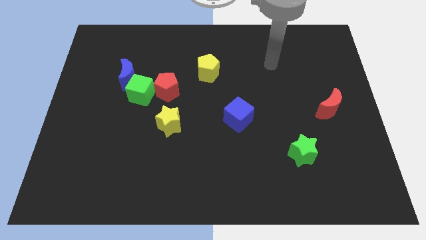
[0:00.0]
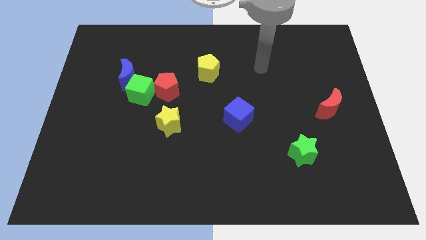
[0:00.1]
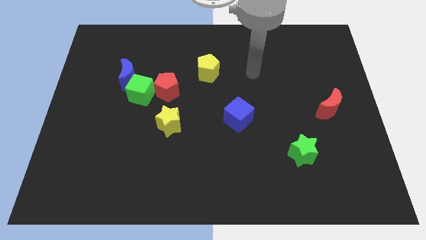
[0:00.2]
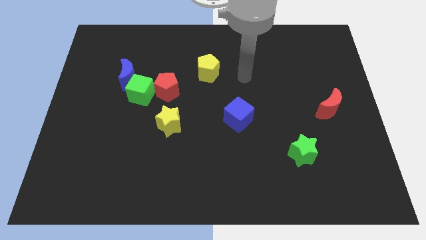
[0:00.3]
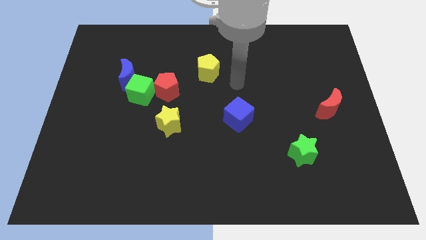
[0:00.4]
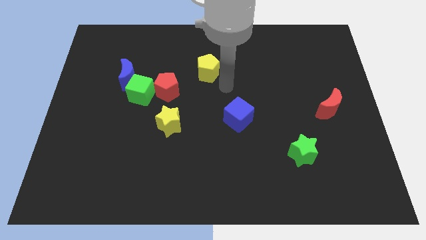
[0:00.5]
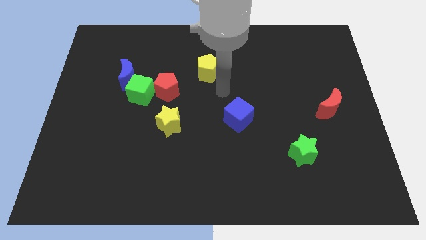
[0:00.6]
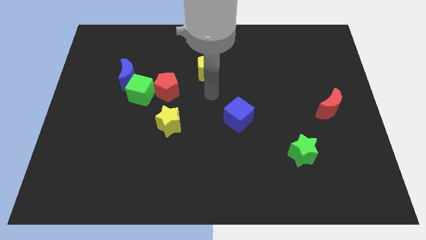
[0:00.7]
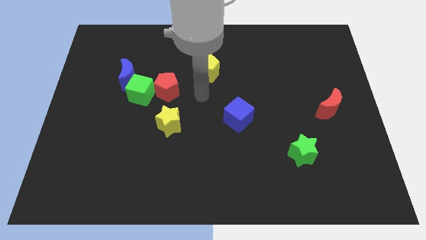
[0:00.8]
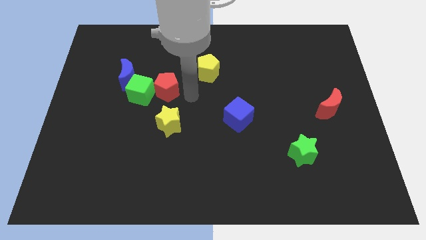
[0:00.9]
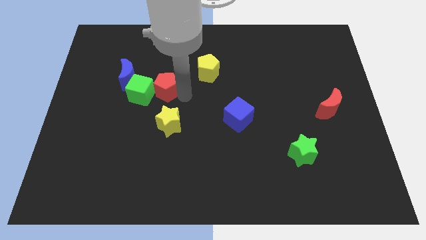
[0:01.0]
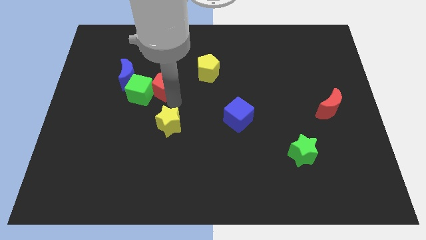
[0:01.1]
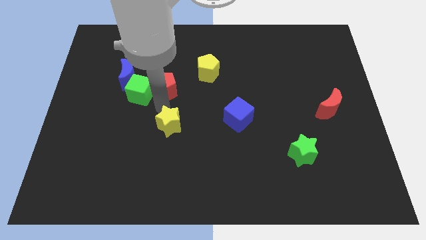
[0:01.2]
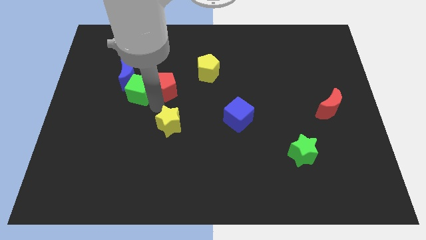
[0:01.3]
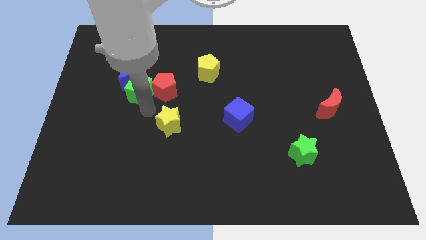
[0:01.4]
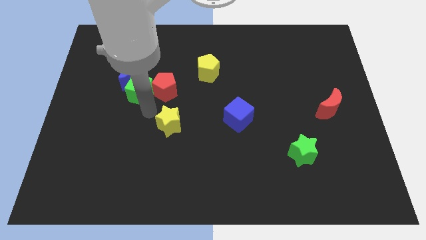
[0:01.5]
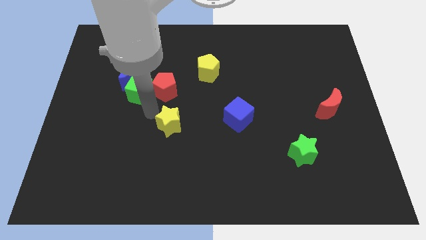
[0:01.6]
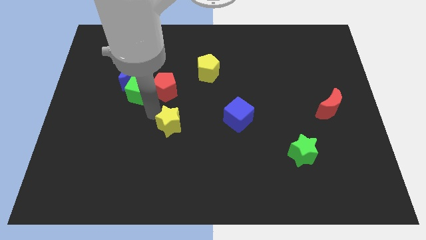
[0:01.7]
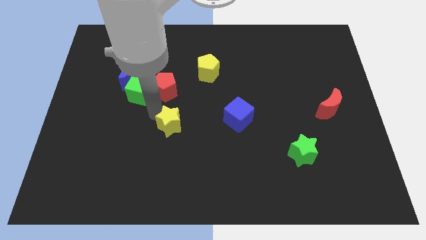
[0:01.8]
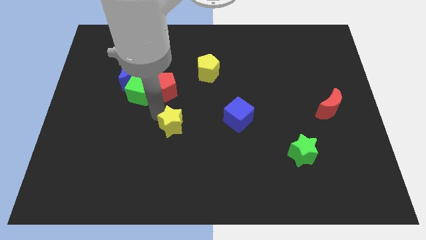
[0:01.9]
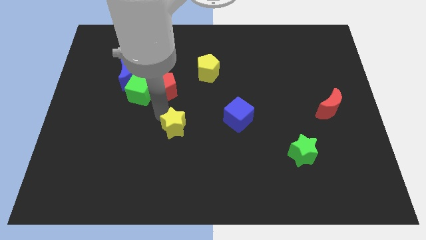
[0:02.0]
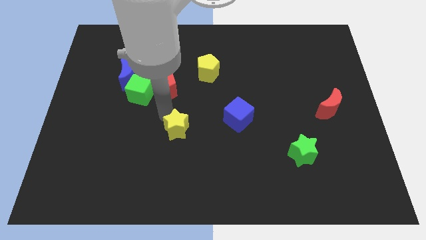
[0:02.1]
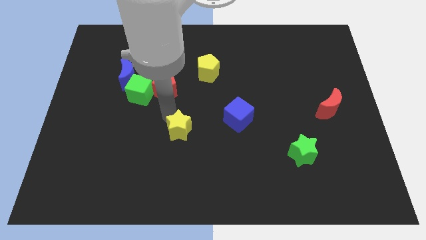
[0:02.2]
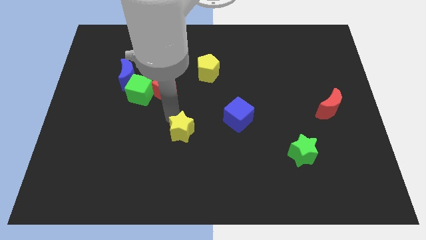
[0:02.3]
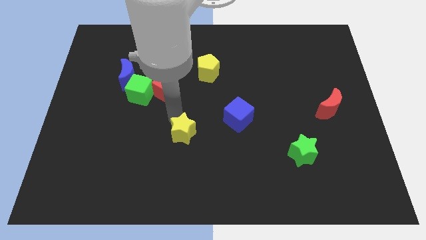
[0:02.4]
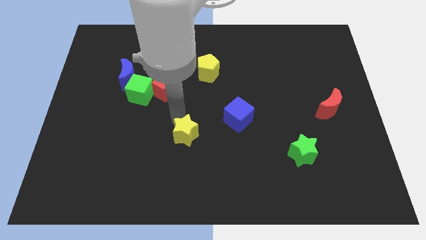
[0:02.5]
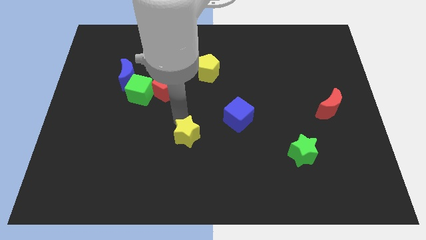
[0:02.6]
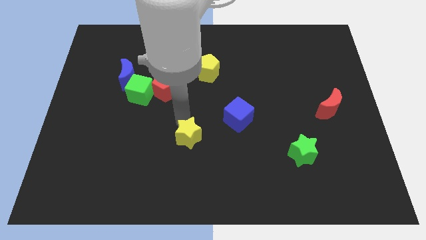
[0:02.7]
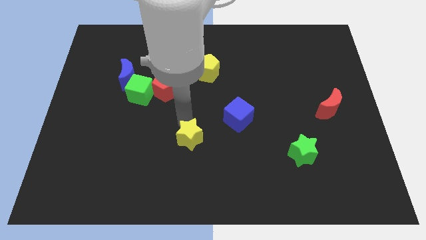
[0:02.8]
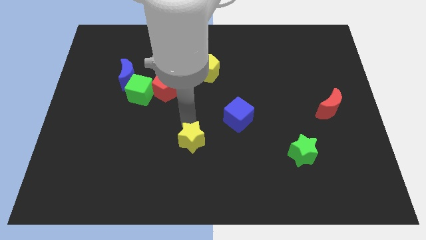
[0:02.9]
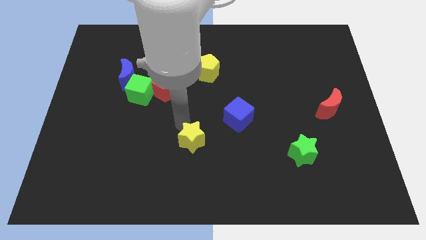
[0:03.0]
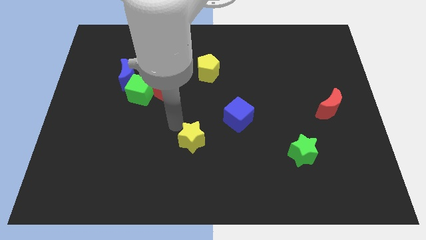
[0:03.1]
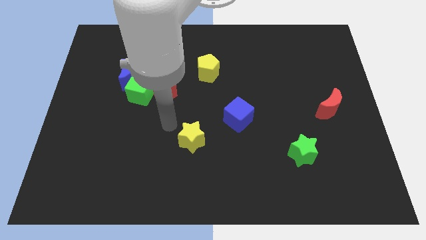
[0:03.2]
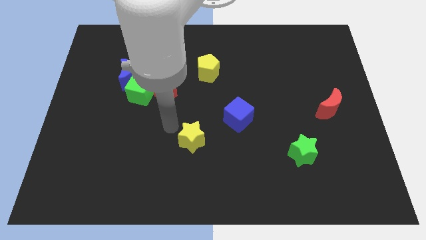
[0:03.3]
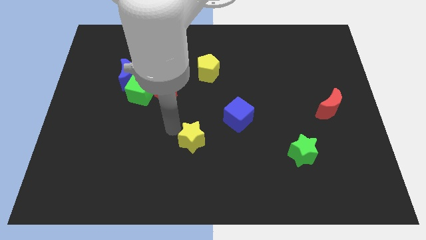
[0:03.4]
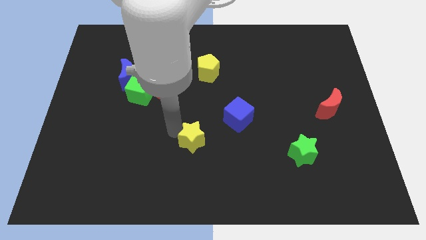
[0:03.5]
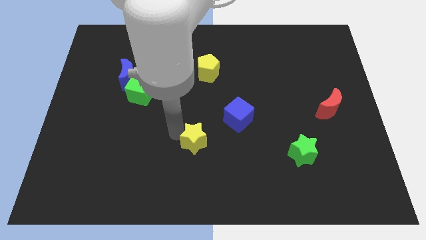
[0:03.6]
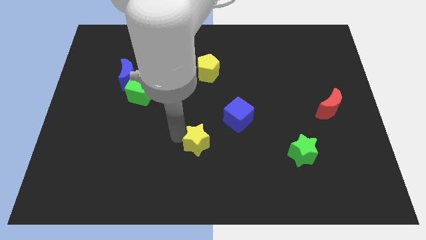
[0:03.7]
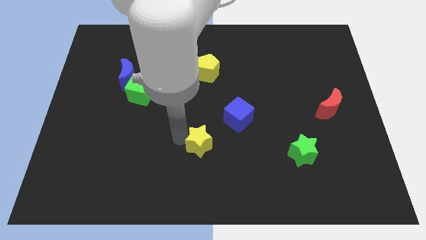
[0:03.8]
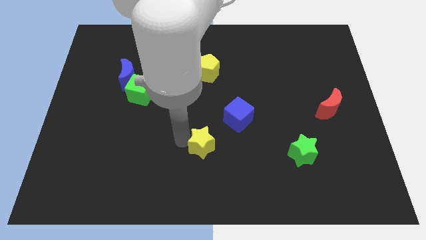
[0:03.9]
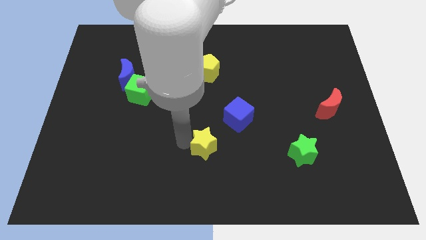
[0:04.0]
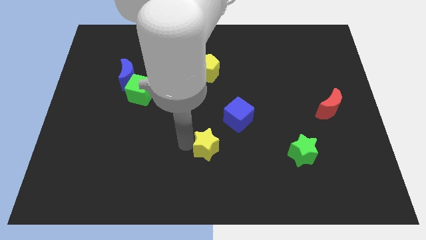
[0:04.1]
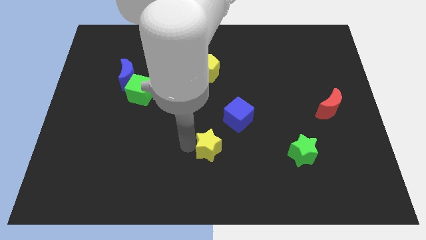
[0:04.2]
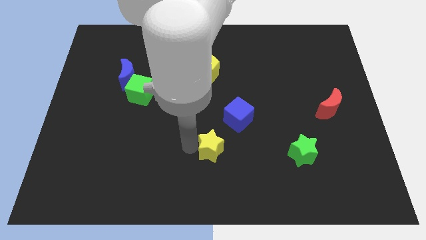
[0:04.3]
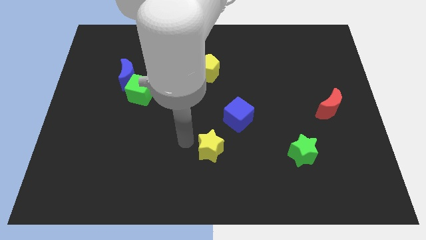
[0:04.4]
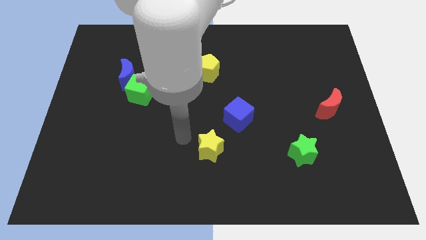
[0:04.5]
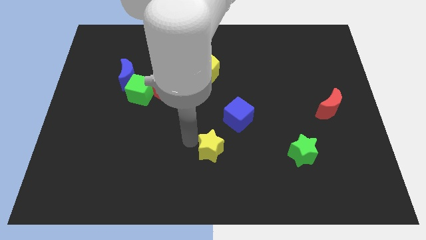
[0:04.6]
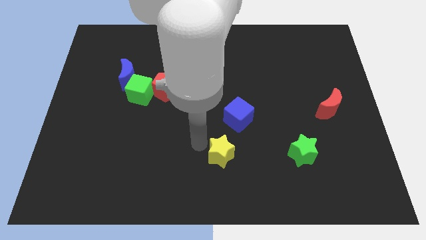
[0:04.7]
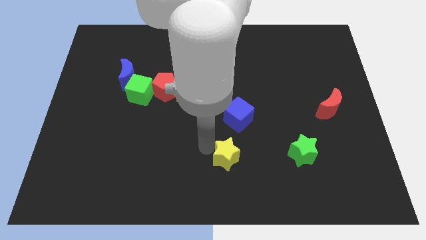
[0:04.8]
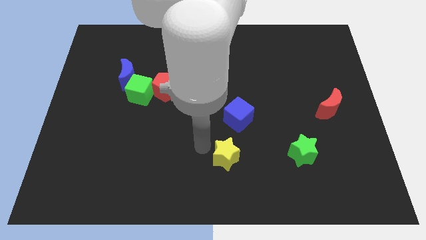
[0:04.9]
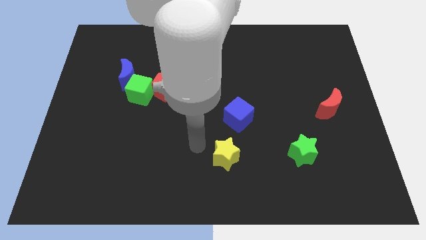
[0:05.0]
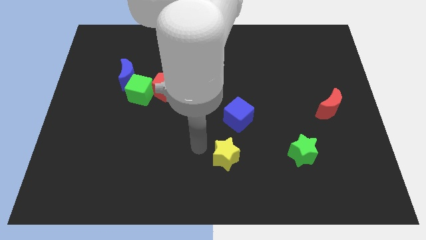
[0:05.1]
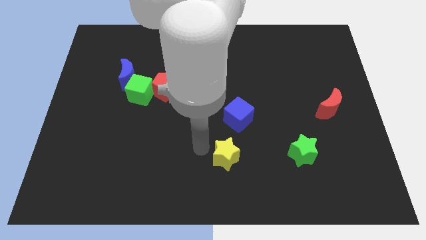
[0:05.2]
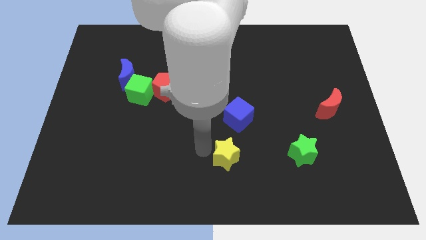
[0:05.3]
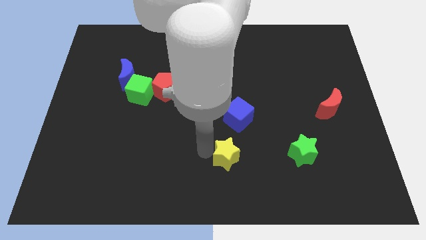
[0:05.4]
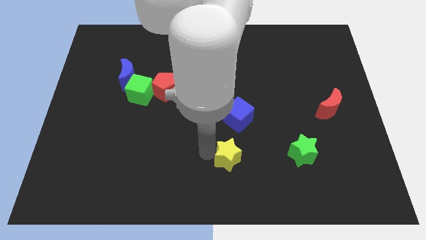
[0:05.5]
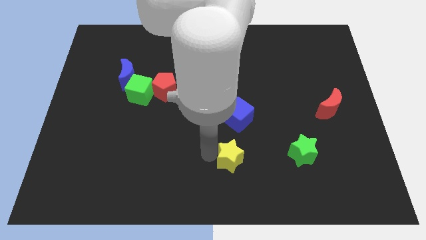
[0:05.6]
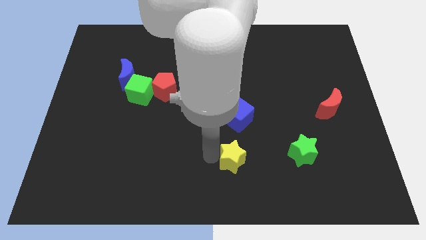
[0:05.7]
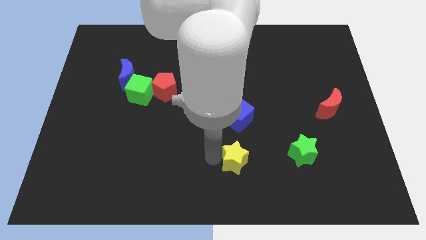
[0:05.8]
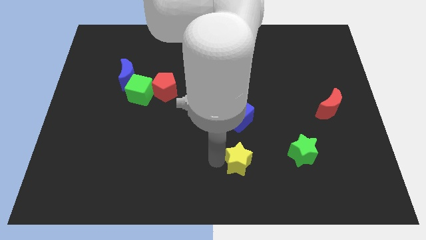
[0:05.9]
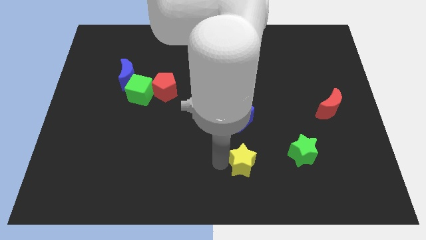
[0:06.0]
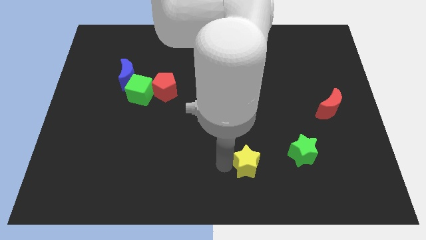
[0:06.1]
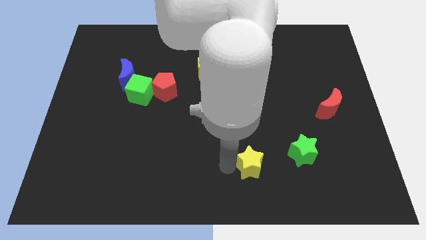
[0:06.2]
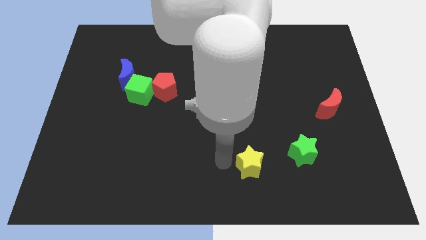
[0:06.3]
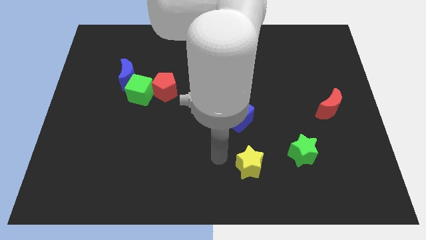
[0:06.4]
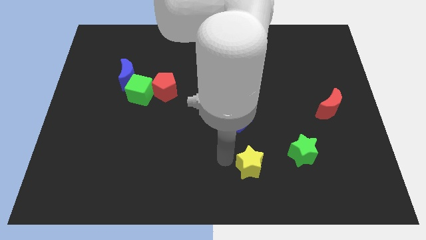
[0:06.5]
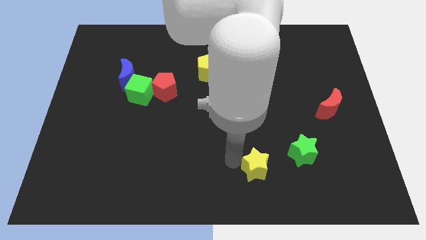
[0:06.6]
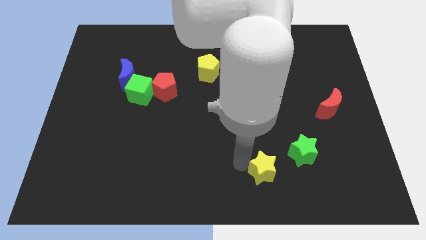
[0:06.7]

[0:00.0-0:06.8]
push the yellow star diagonally down and to the left of the green star

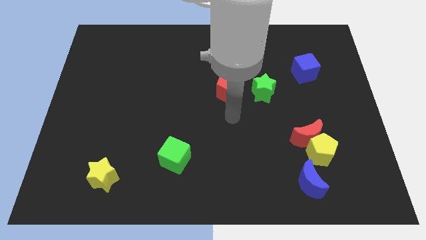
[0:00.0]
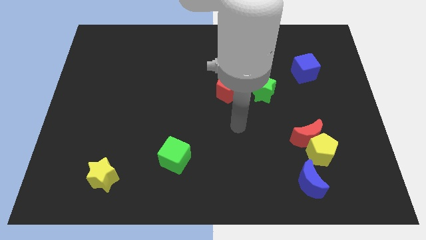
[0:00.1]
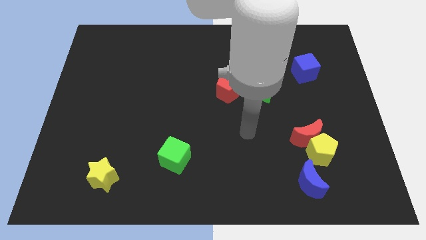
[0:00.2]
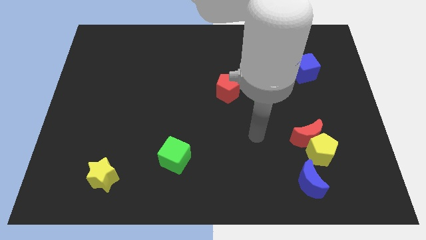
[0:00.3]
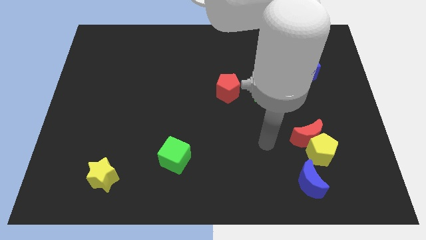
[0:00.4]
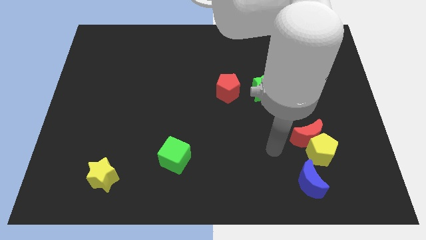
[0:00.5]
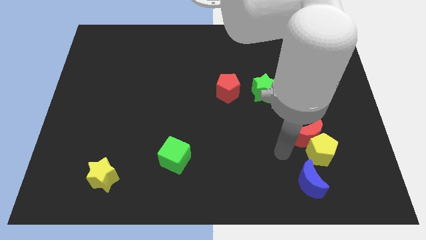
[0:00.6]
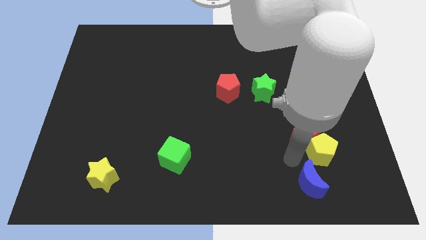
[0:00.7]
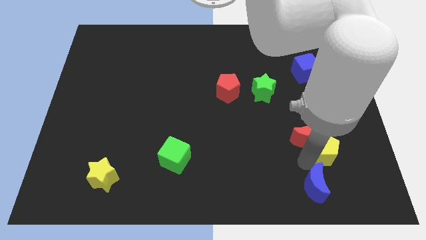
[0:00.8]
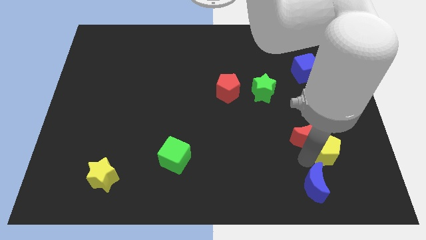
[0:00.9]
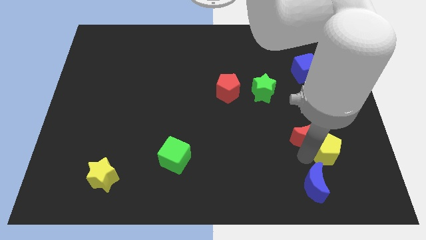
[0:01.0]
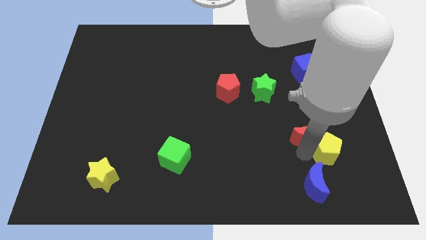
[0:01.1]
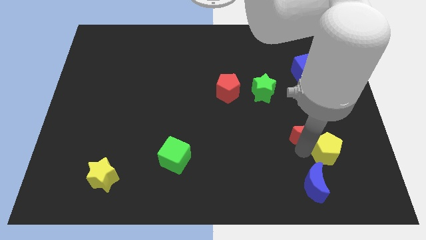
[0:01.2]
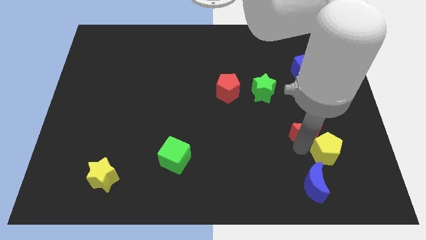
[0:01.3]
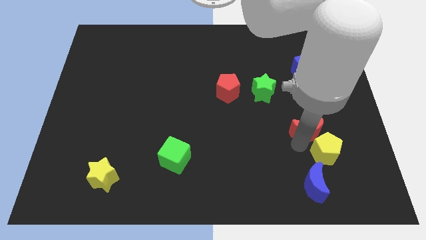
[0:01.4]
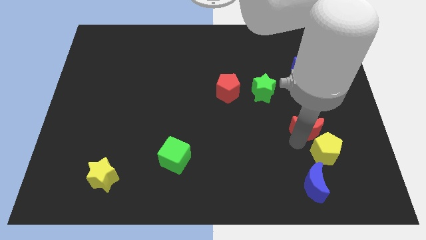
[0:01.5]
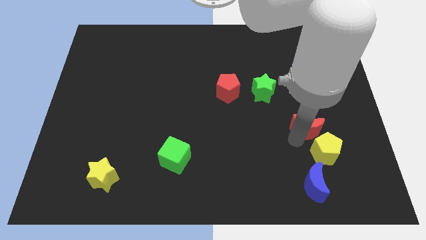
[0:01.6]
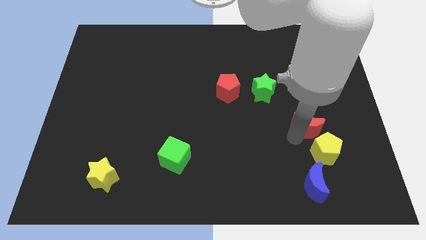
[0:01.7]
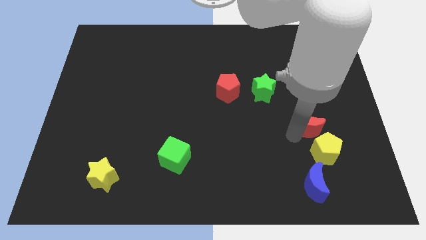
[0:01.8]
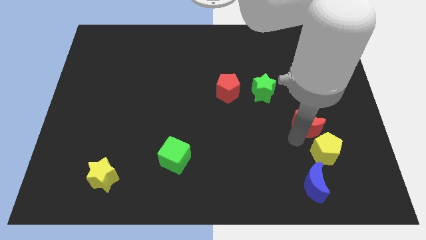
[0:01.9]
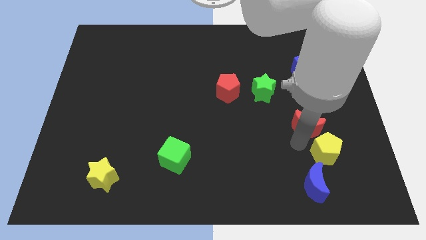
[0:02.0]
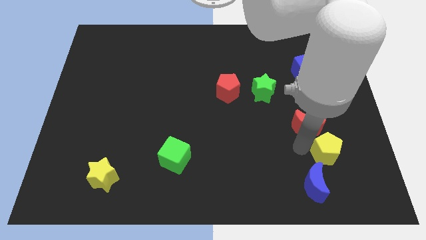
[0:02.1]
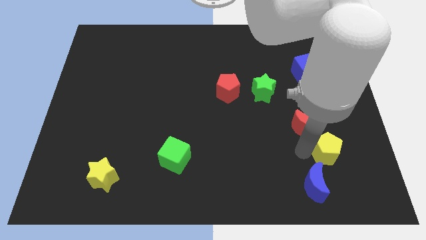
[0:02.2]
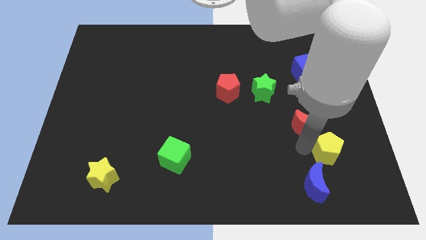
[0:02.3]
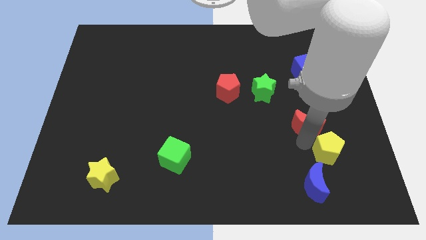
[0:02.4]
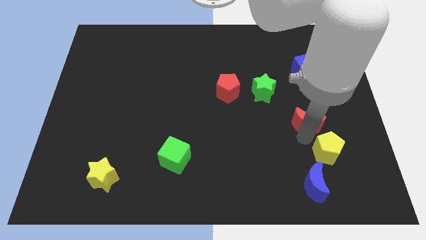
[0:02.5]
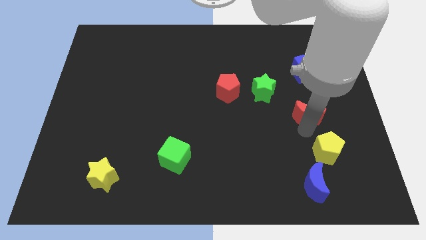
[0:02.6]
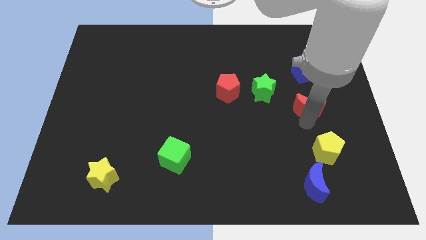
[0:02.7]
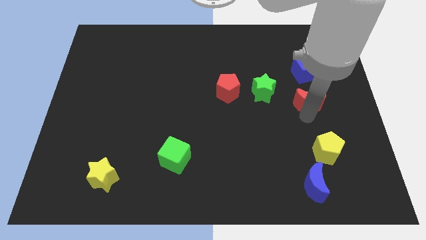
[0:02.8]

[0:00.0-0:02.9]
put the red moon just right of the green star
